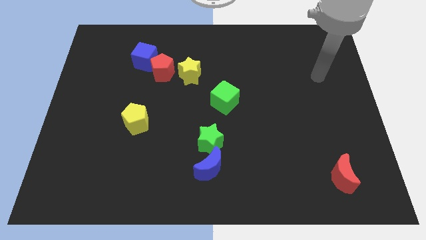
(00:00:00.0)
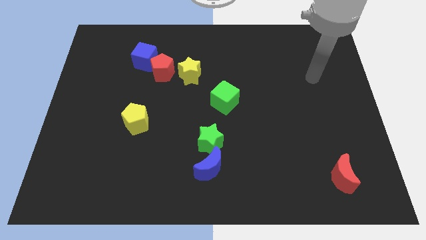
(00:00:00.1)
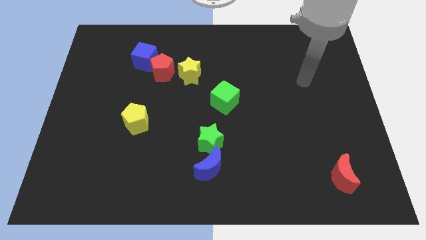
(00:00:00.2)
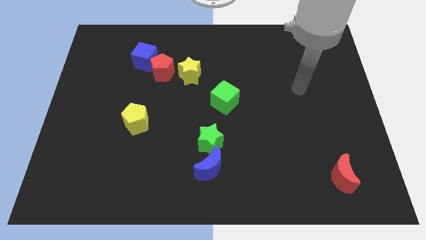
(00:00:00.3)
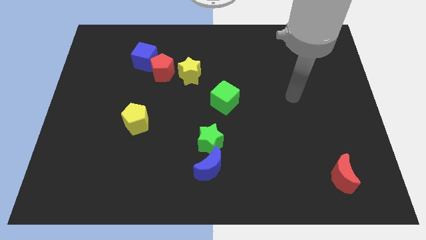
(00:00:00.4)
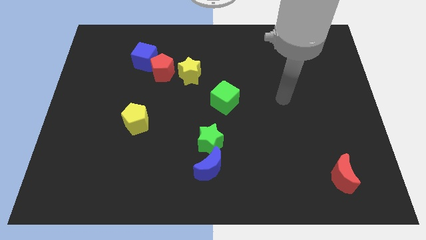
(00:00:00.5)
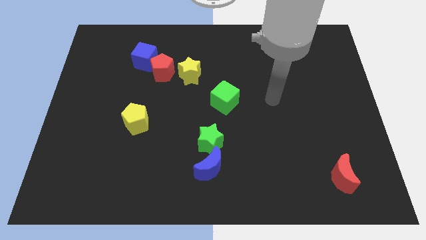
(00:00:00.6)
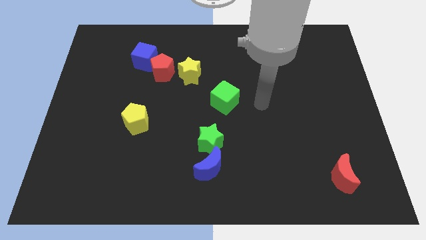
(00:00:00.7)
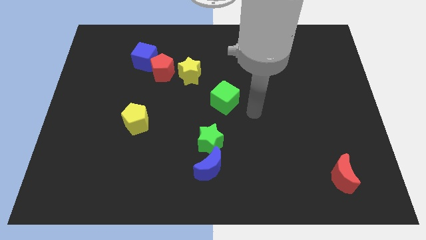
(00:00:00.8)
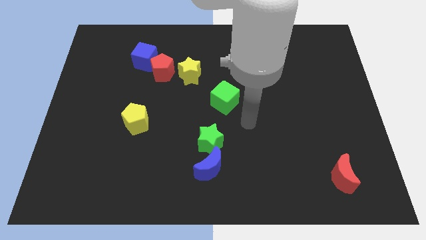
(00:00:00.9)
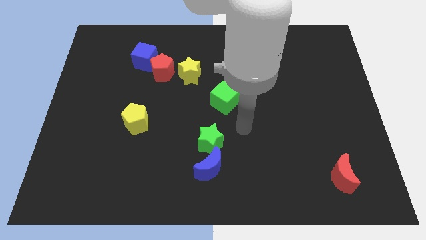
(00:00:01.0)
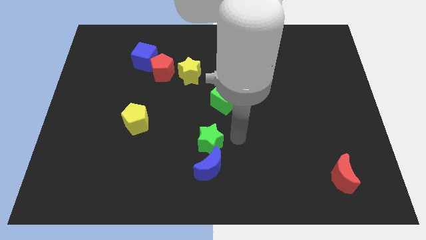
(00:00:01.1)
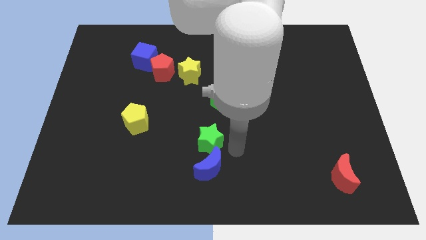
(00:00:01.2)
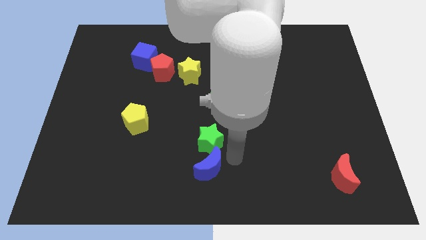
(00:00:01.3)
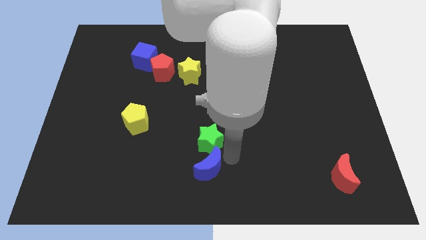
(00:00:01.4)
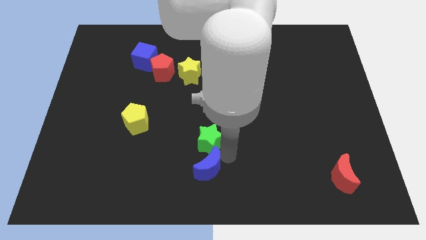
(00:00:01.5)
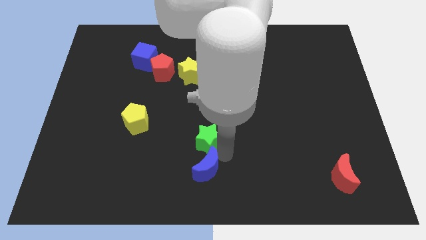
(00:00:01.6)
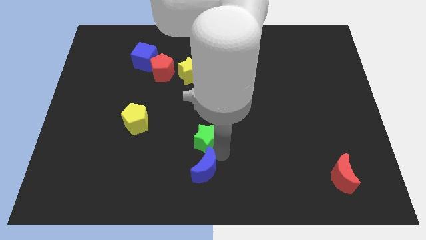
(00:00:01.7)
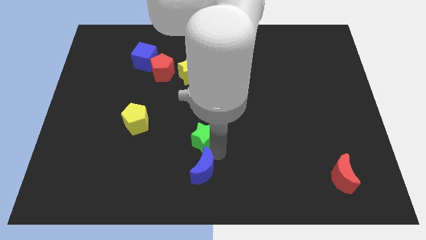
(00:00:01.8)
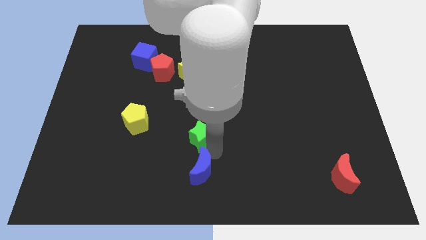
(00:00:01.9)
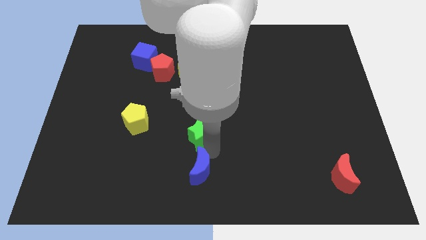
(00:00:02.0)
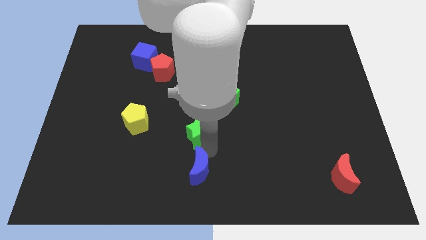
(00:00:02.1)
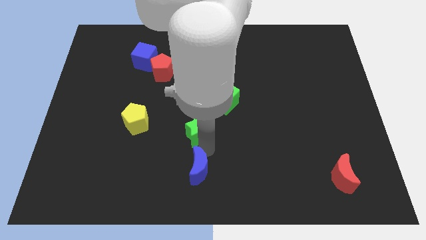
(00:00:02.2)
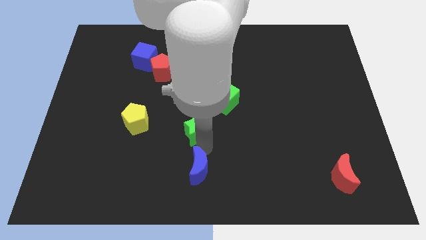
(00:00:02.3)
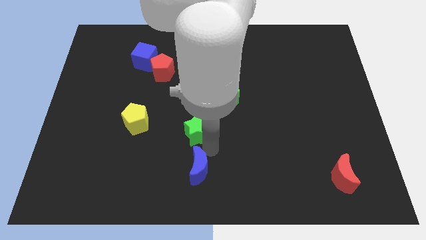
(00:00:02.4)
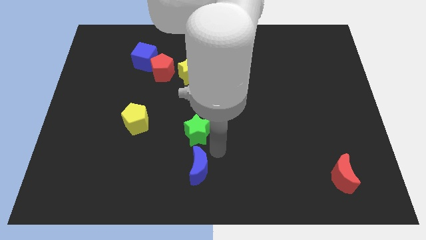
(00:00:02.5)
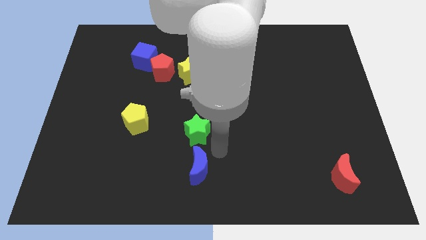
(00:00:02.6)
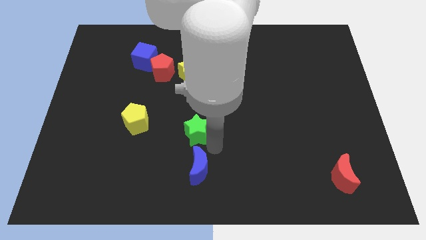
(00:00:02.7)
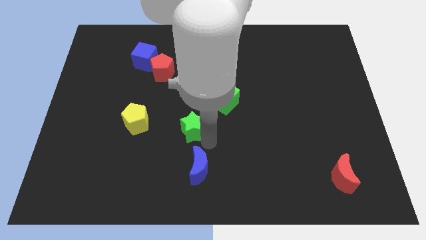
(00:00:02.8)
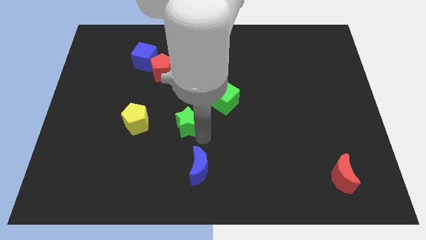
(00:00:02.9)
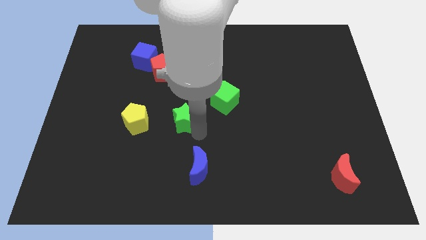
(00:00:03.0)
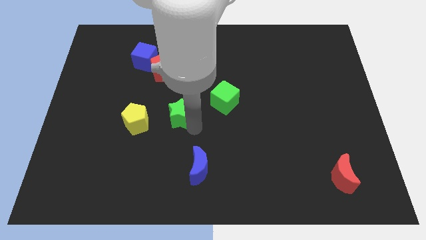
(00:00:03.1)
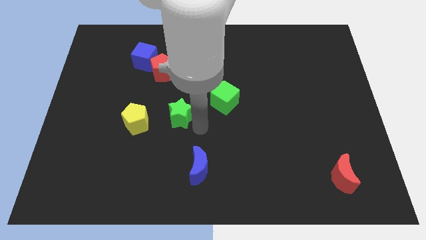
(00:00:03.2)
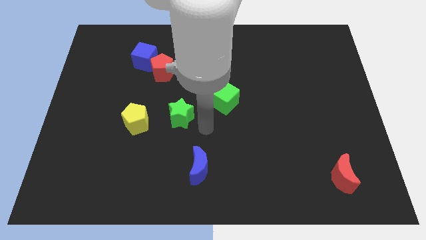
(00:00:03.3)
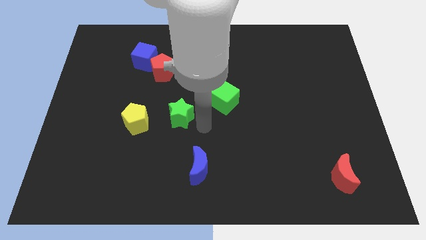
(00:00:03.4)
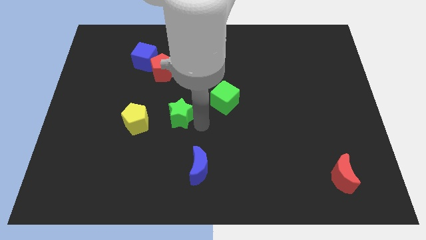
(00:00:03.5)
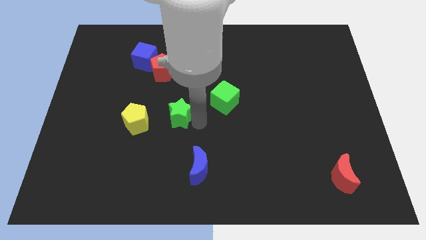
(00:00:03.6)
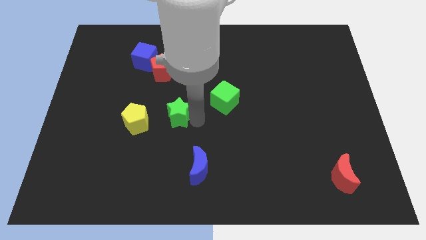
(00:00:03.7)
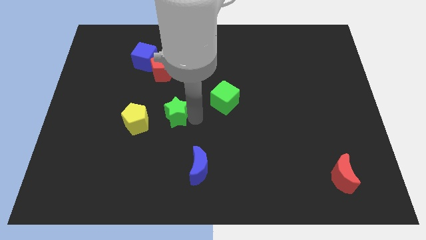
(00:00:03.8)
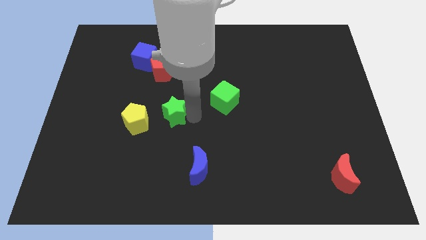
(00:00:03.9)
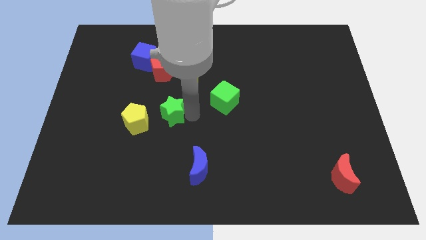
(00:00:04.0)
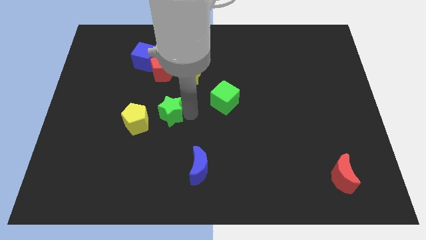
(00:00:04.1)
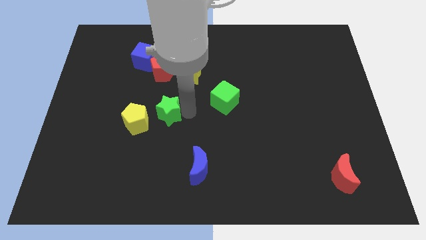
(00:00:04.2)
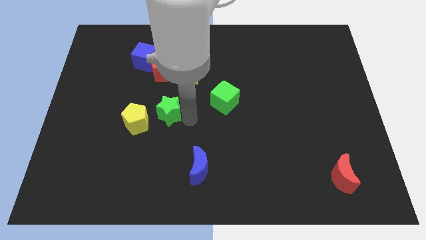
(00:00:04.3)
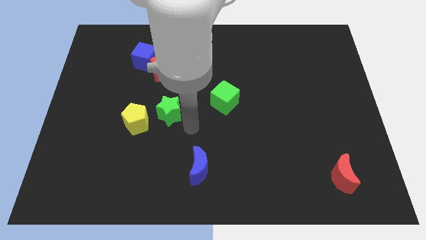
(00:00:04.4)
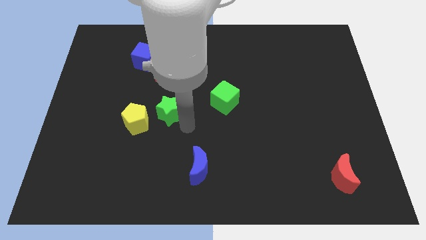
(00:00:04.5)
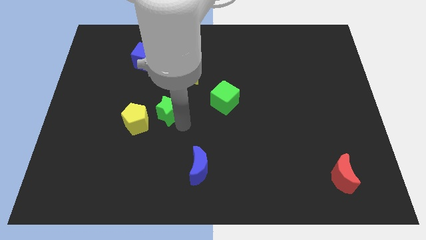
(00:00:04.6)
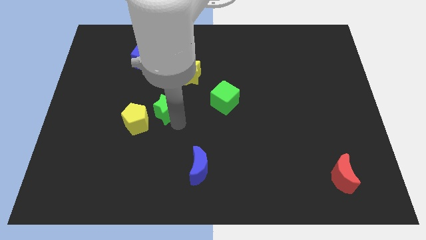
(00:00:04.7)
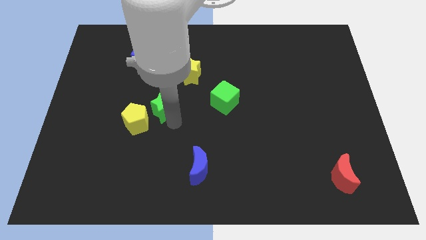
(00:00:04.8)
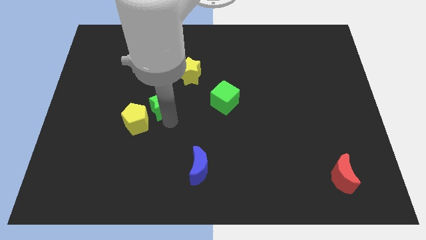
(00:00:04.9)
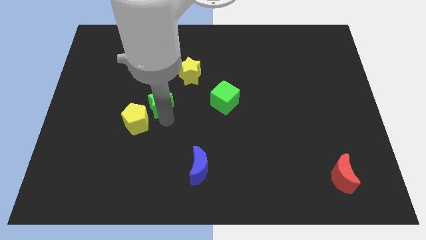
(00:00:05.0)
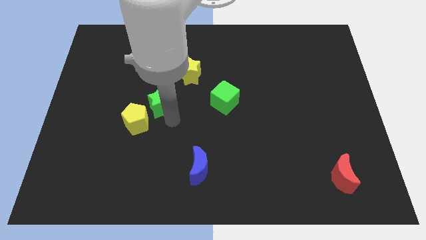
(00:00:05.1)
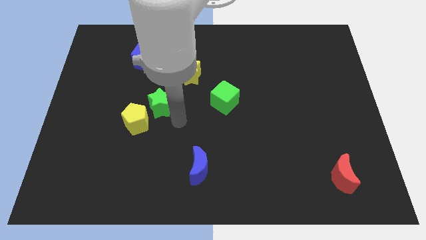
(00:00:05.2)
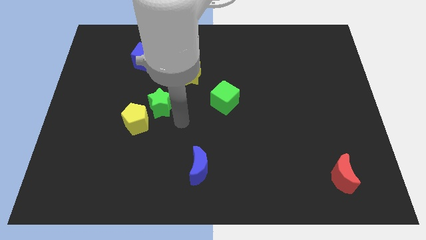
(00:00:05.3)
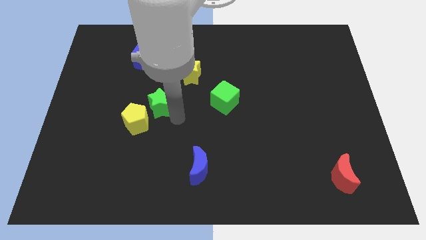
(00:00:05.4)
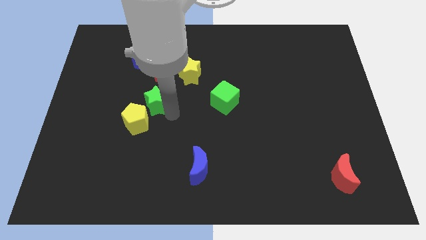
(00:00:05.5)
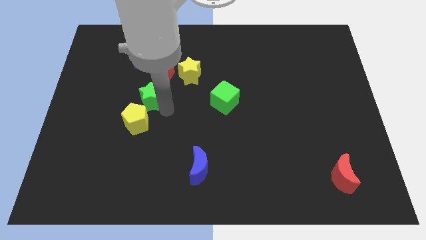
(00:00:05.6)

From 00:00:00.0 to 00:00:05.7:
slide the green star to the bottom side of the blue cube

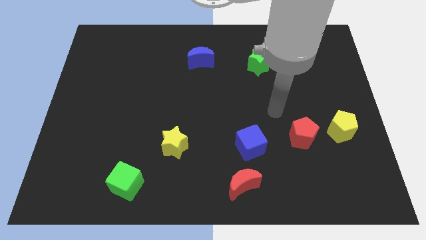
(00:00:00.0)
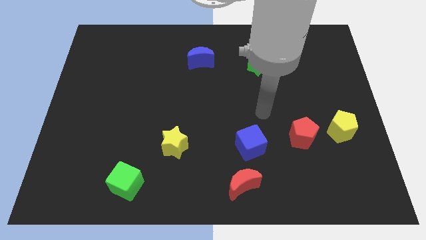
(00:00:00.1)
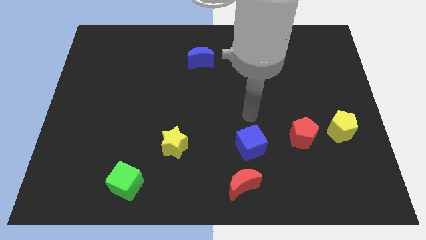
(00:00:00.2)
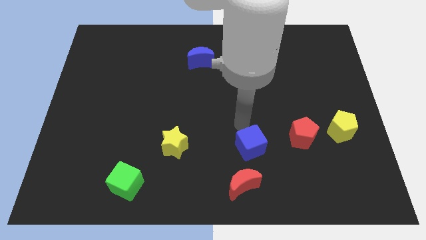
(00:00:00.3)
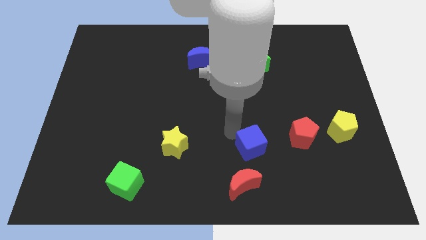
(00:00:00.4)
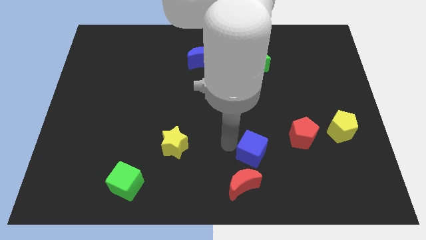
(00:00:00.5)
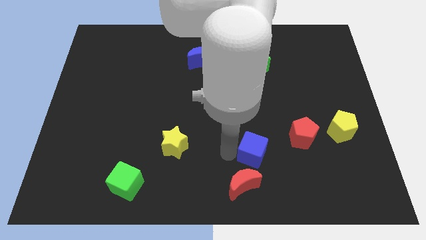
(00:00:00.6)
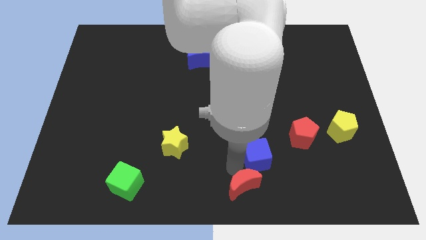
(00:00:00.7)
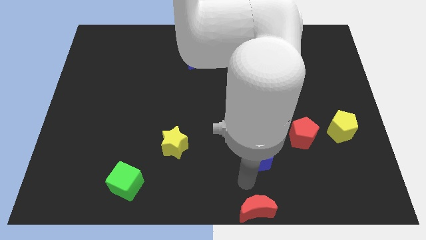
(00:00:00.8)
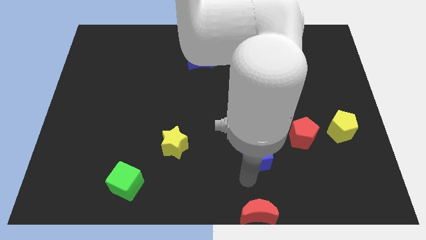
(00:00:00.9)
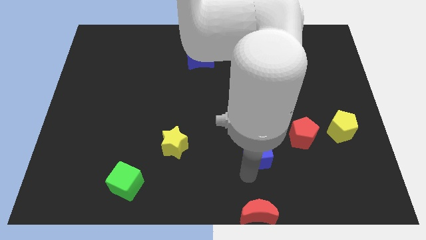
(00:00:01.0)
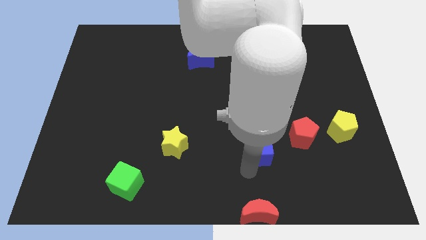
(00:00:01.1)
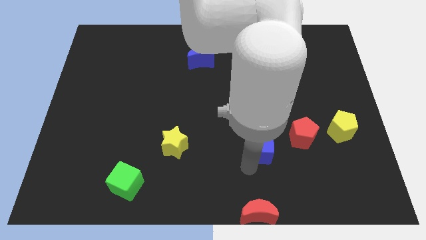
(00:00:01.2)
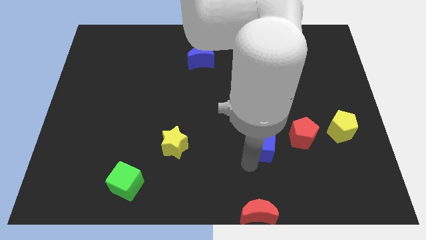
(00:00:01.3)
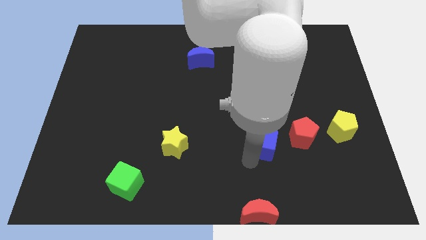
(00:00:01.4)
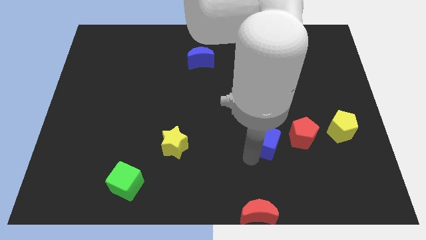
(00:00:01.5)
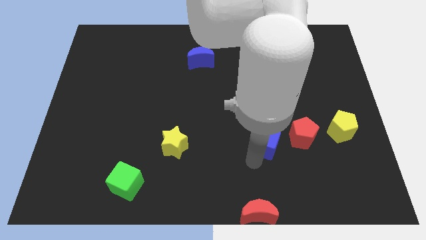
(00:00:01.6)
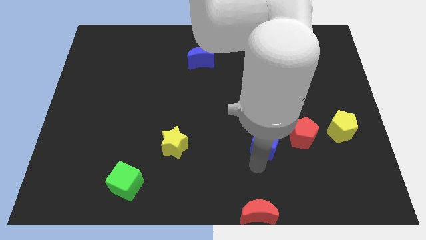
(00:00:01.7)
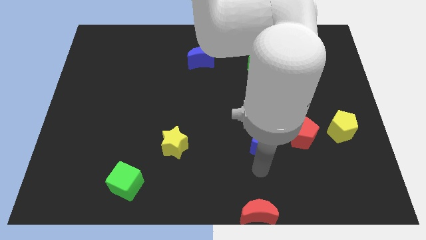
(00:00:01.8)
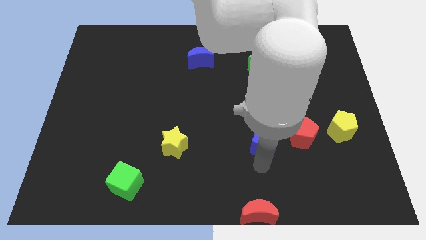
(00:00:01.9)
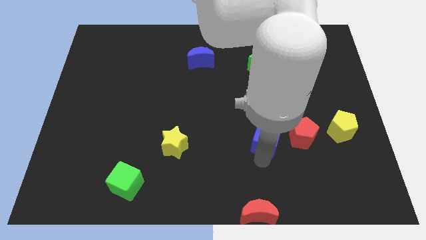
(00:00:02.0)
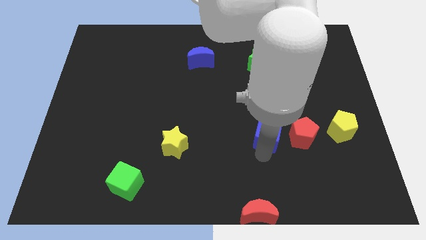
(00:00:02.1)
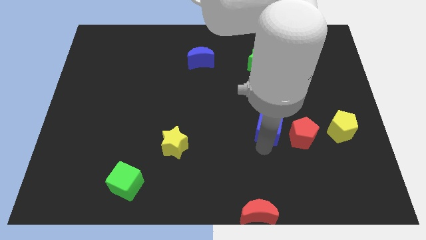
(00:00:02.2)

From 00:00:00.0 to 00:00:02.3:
move the blue cube diagonally up and to the left of the red pentagon

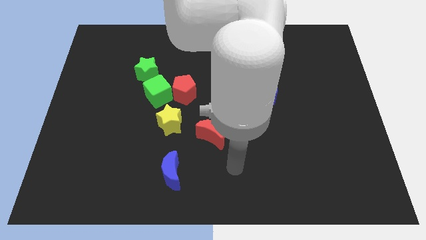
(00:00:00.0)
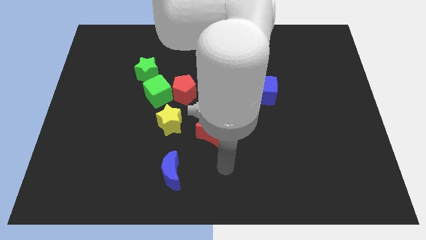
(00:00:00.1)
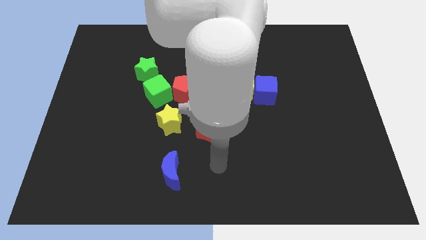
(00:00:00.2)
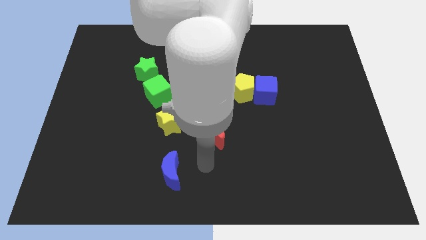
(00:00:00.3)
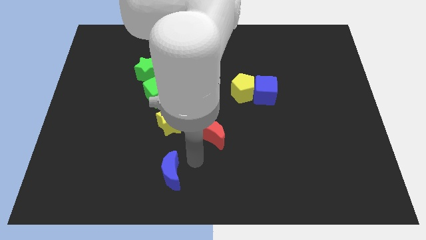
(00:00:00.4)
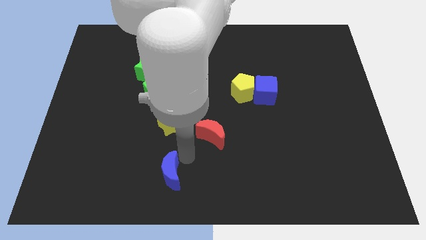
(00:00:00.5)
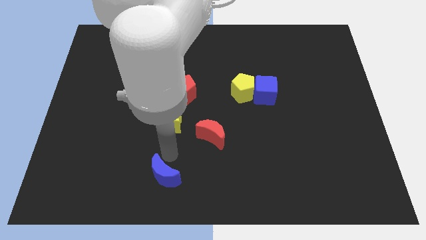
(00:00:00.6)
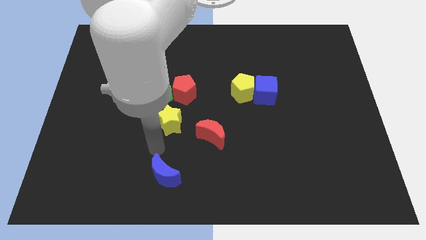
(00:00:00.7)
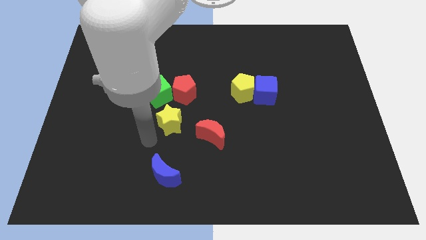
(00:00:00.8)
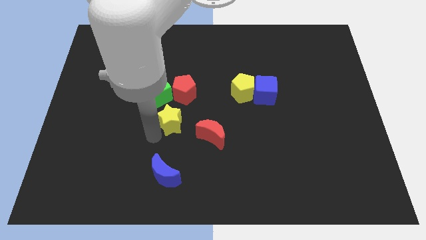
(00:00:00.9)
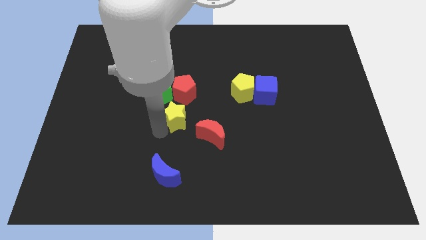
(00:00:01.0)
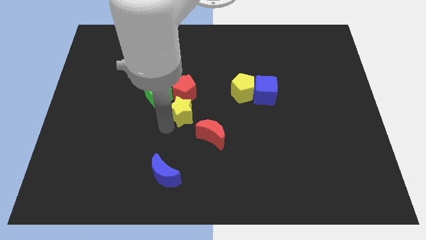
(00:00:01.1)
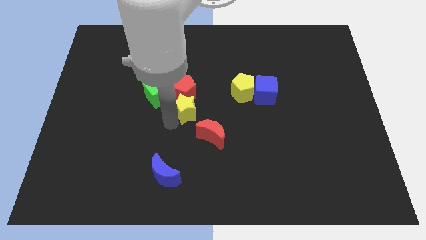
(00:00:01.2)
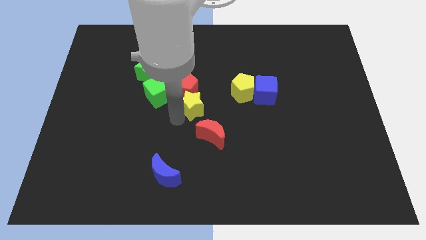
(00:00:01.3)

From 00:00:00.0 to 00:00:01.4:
slide the yellow star to the right side of the green cube
